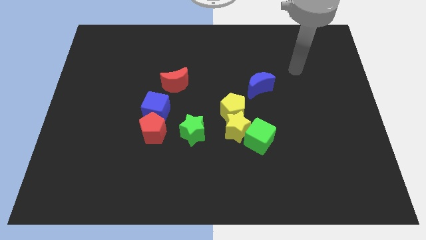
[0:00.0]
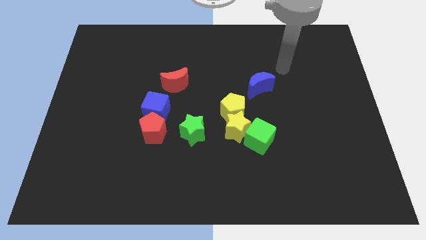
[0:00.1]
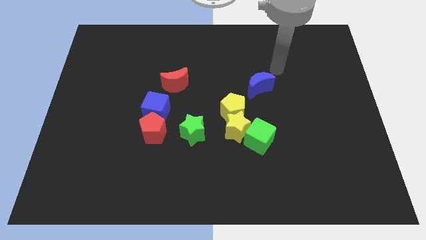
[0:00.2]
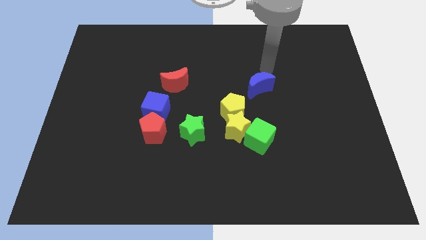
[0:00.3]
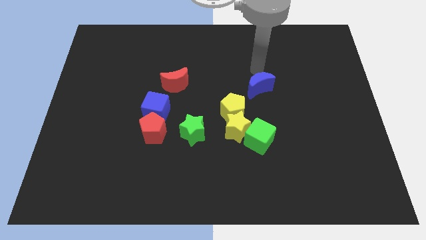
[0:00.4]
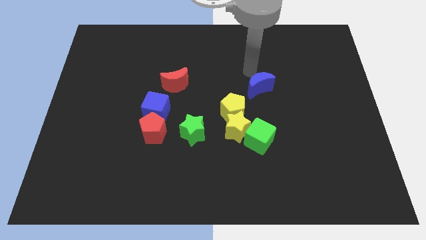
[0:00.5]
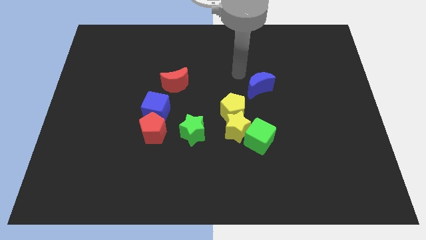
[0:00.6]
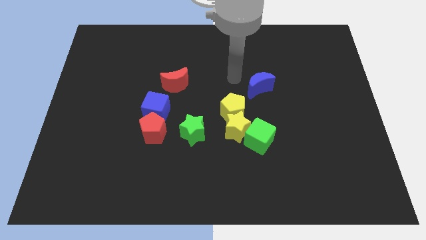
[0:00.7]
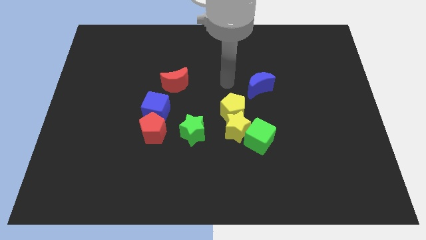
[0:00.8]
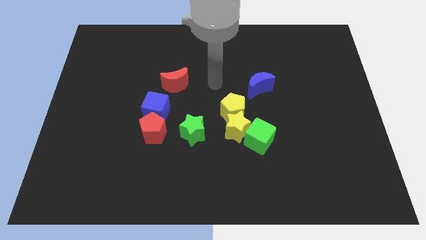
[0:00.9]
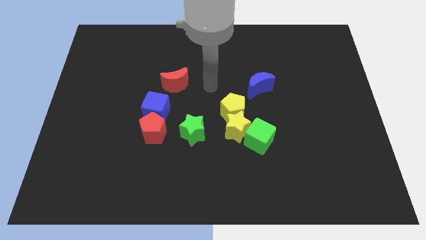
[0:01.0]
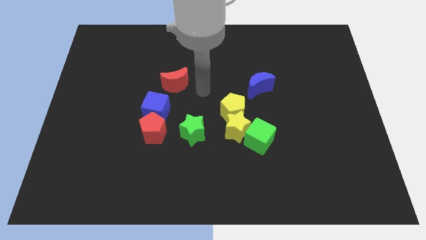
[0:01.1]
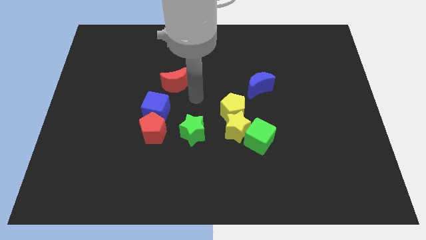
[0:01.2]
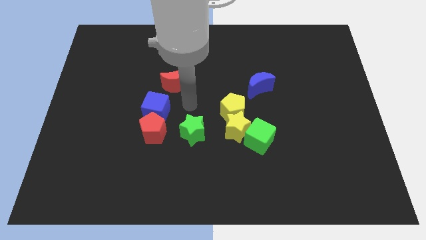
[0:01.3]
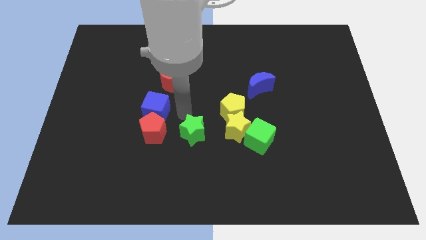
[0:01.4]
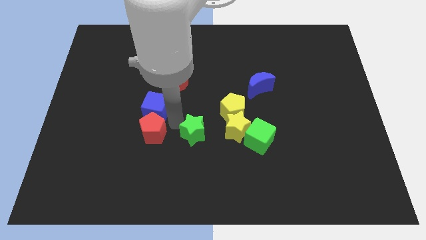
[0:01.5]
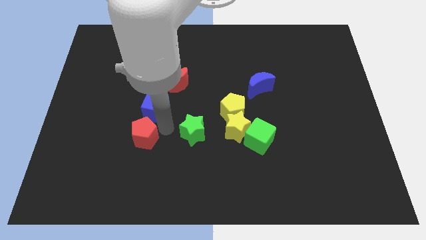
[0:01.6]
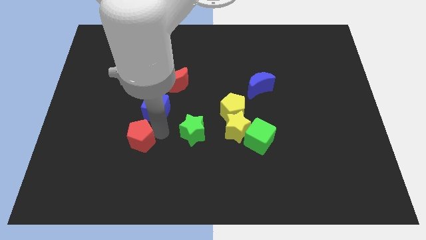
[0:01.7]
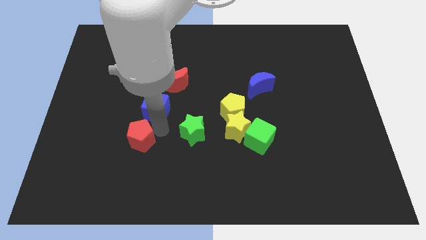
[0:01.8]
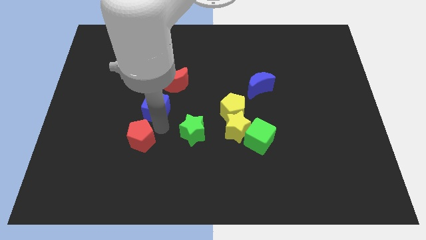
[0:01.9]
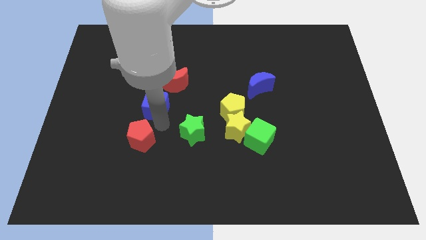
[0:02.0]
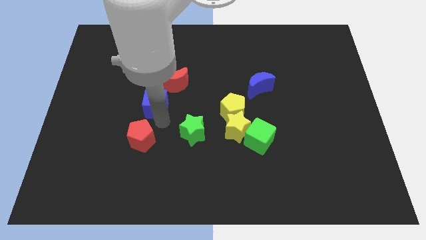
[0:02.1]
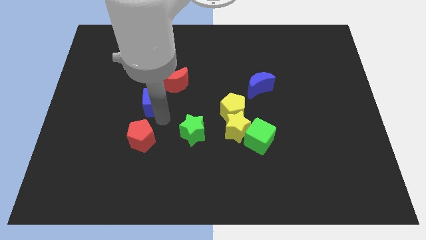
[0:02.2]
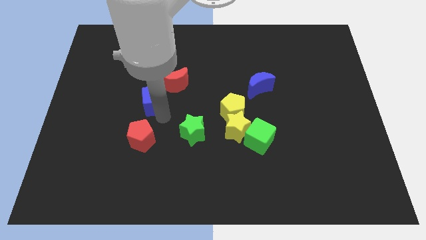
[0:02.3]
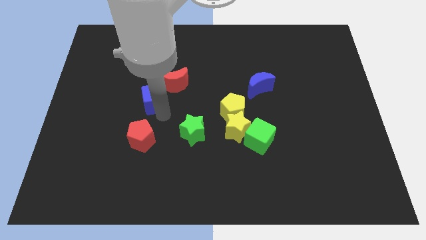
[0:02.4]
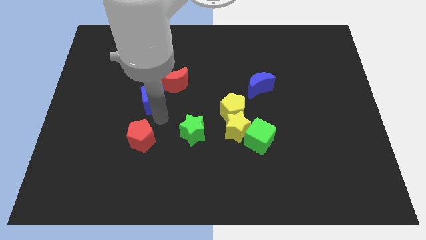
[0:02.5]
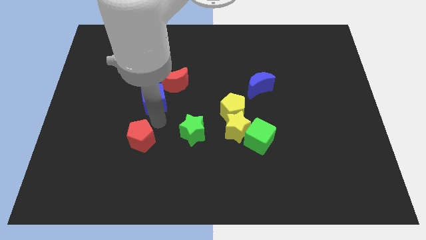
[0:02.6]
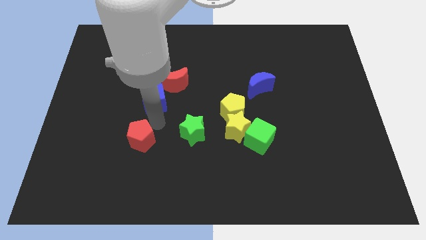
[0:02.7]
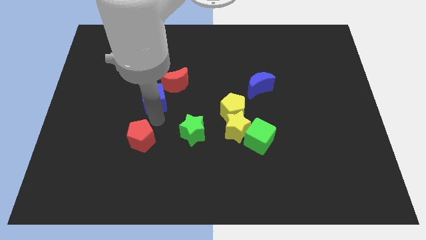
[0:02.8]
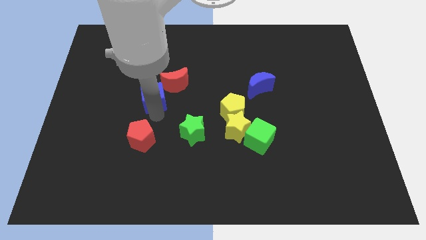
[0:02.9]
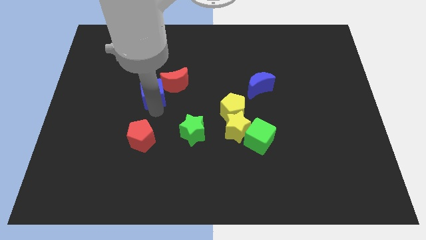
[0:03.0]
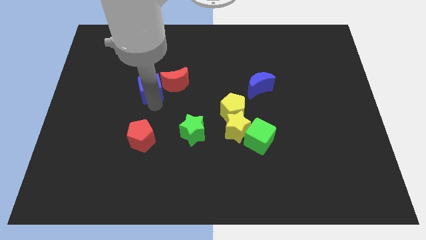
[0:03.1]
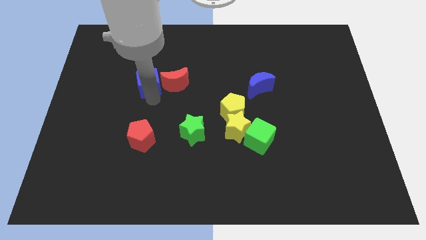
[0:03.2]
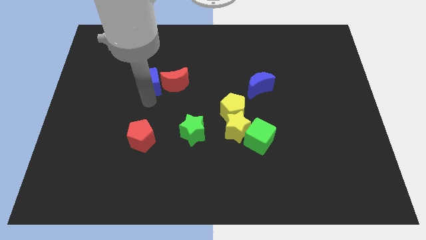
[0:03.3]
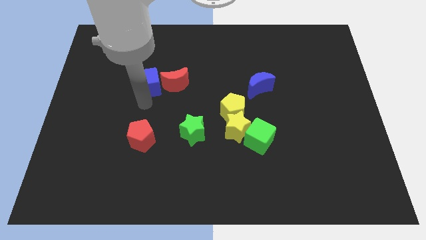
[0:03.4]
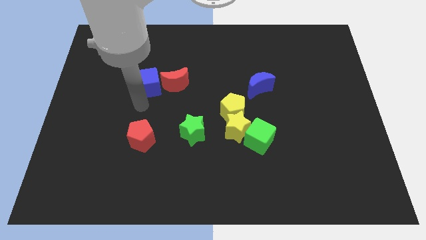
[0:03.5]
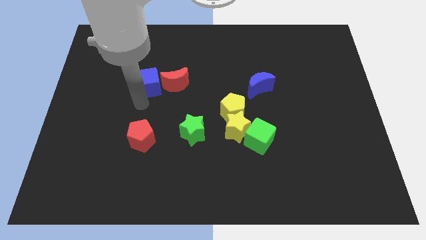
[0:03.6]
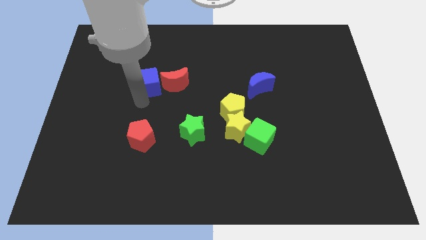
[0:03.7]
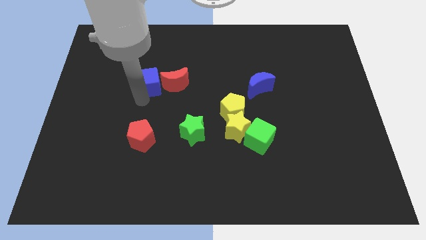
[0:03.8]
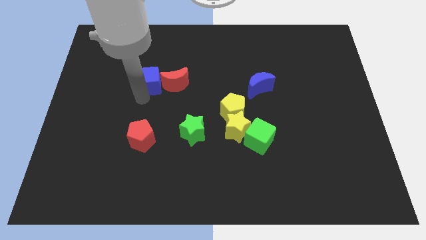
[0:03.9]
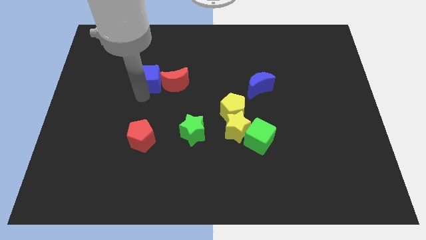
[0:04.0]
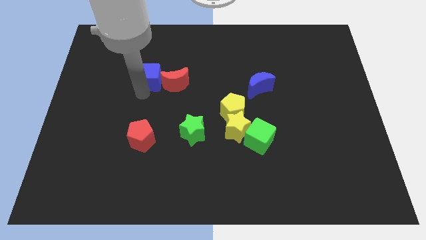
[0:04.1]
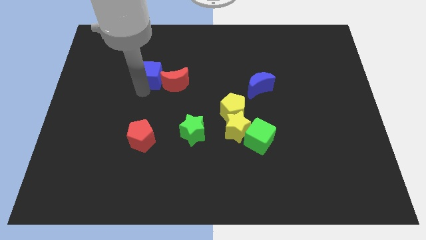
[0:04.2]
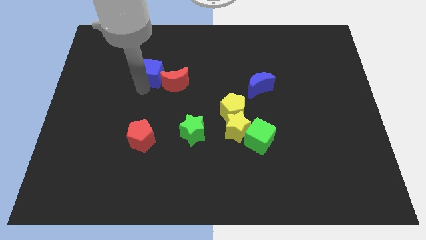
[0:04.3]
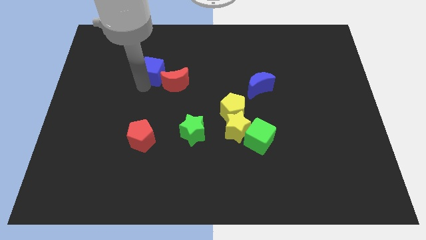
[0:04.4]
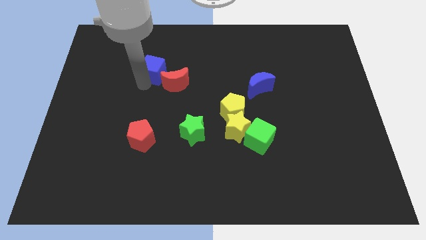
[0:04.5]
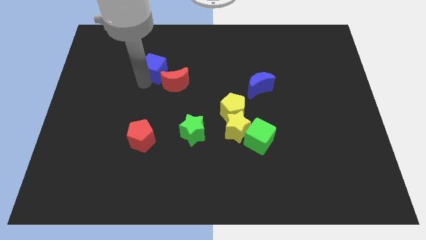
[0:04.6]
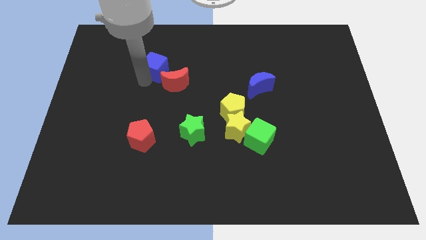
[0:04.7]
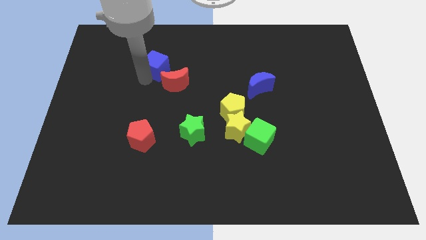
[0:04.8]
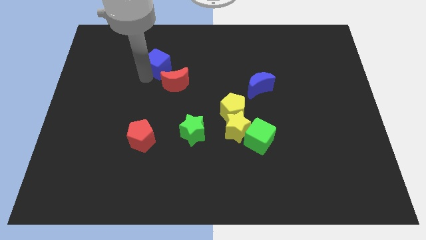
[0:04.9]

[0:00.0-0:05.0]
put the blue cube to the top of the red moon

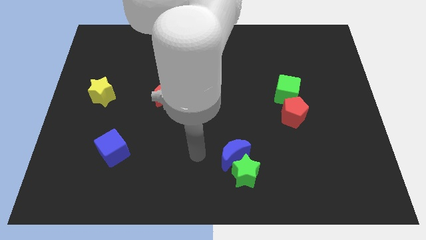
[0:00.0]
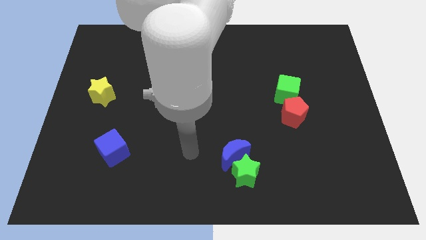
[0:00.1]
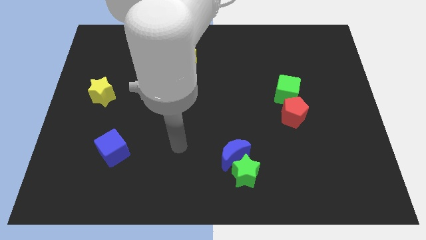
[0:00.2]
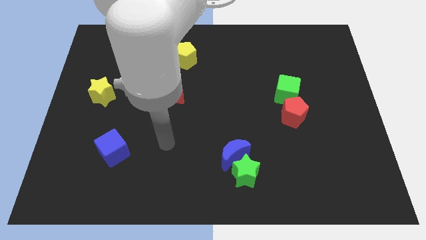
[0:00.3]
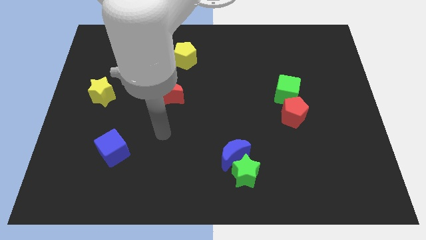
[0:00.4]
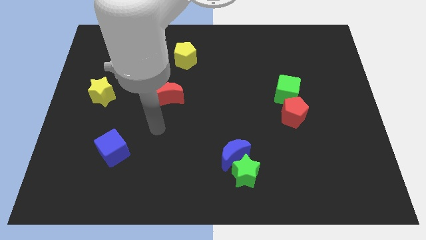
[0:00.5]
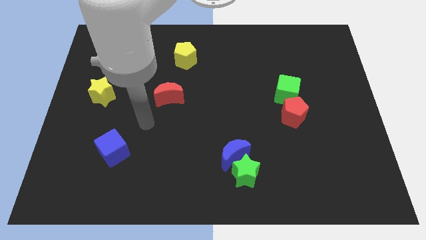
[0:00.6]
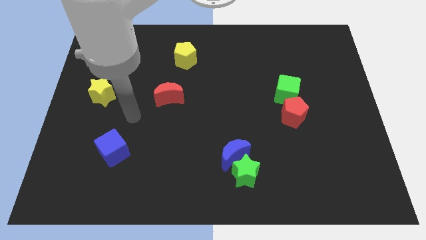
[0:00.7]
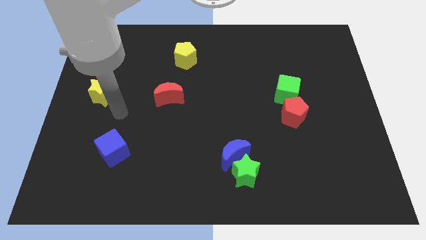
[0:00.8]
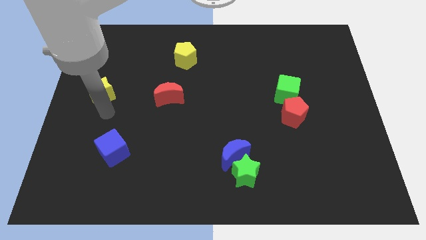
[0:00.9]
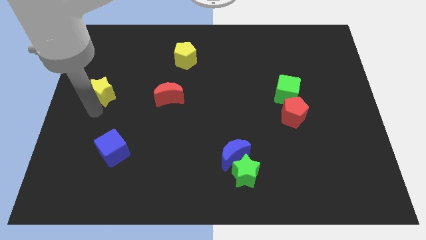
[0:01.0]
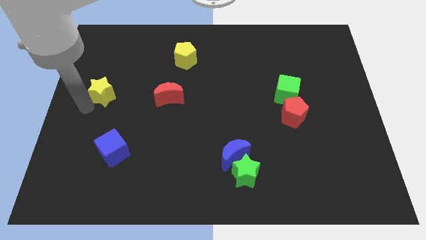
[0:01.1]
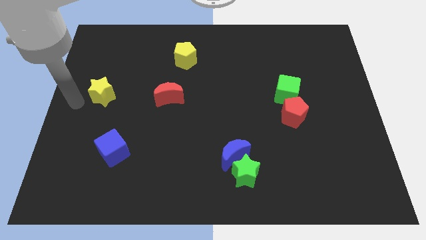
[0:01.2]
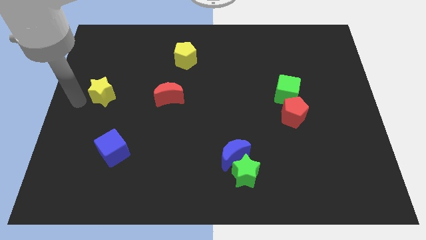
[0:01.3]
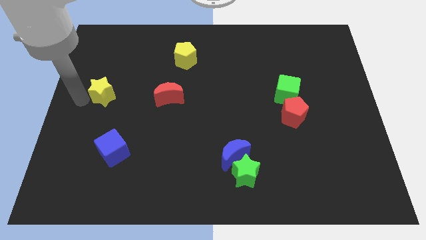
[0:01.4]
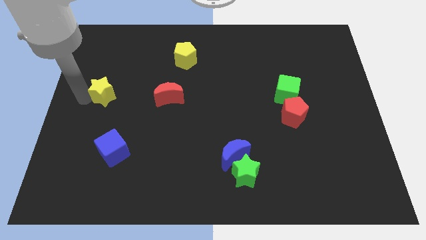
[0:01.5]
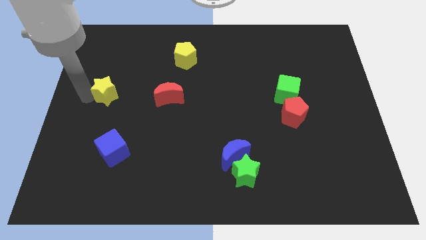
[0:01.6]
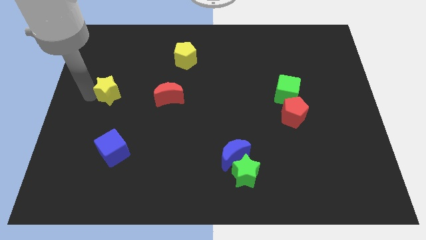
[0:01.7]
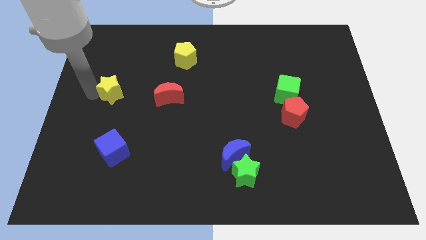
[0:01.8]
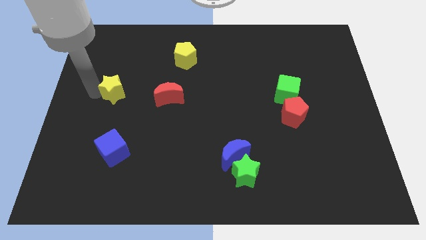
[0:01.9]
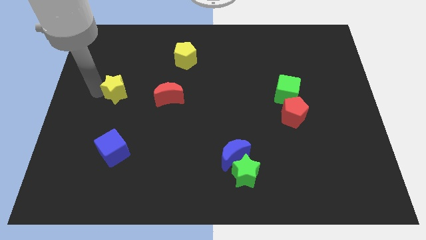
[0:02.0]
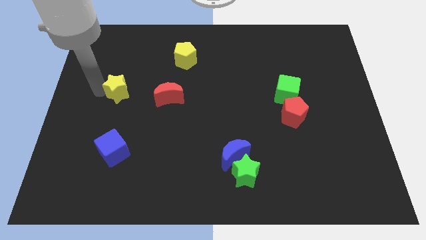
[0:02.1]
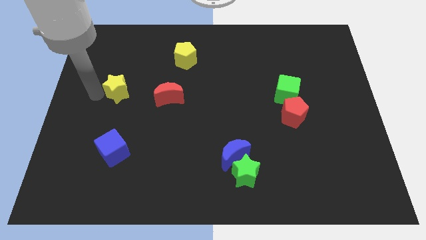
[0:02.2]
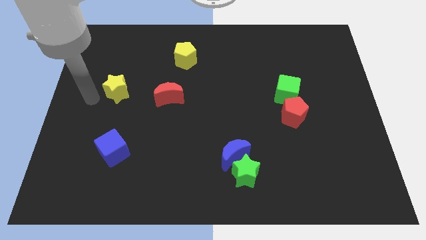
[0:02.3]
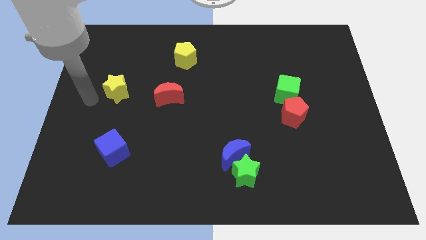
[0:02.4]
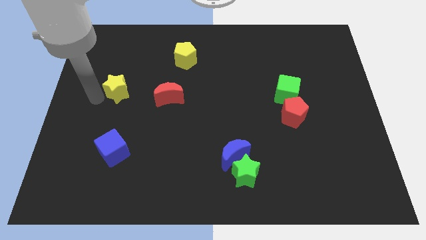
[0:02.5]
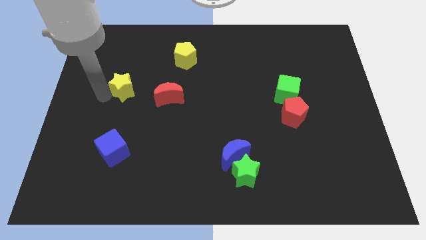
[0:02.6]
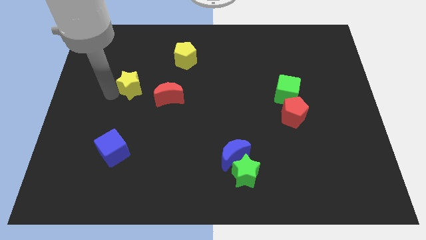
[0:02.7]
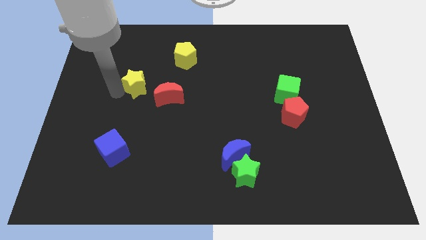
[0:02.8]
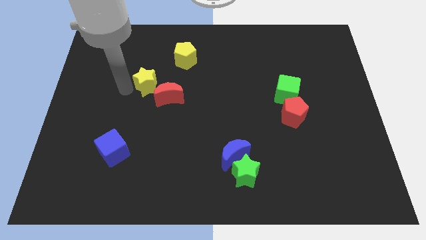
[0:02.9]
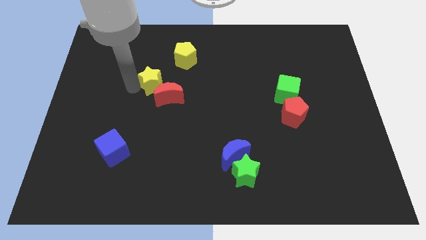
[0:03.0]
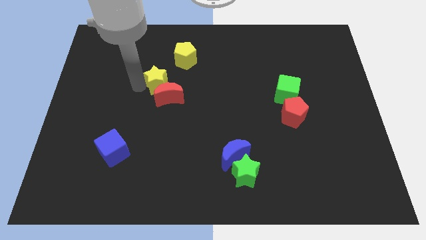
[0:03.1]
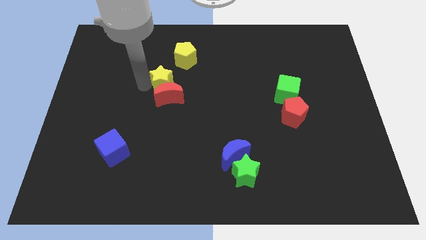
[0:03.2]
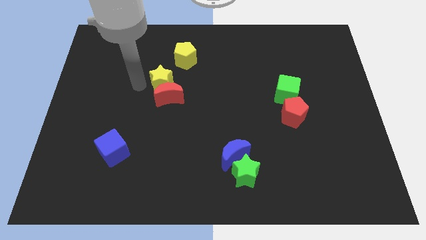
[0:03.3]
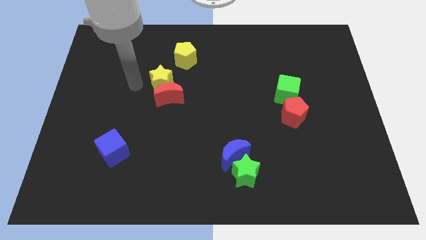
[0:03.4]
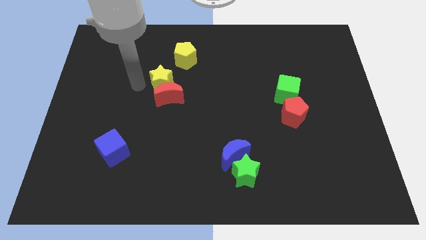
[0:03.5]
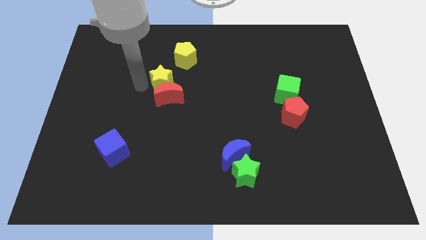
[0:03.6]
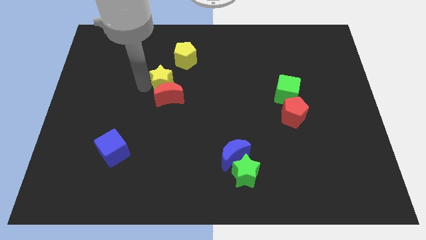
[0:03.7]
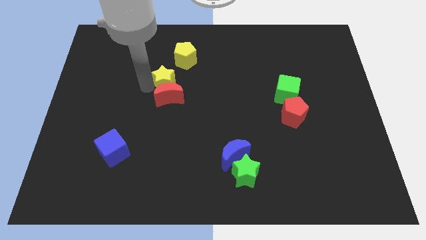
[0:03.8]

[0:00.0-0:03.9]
move the yellow star diagonally up and to the right of the red moon
